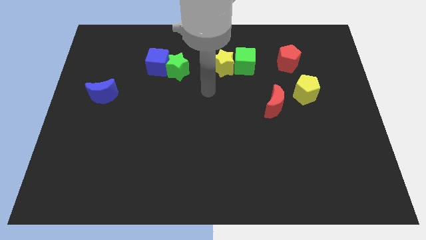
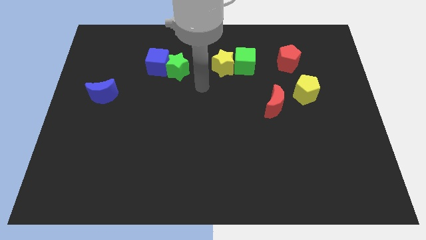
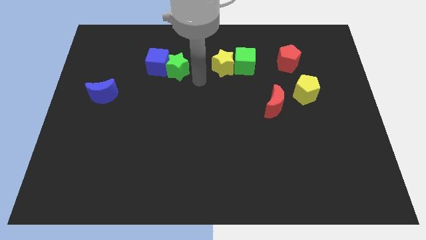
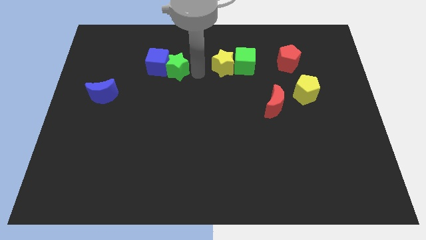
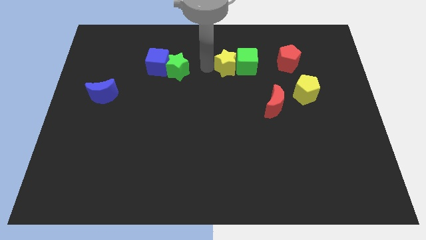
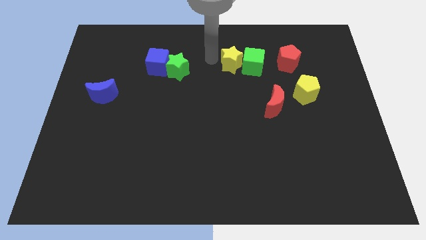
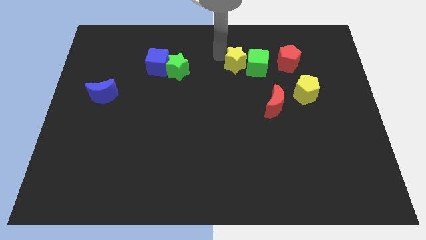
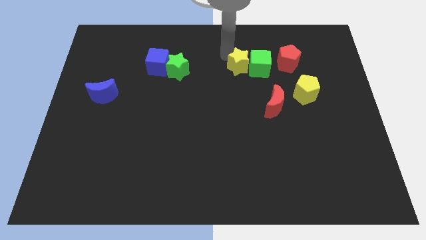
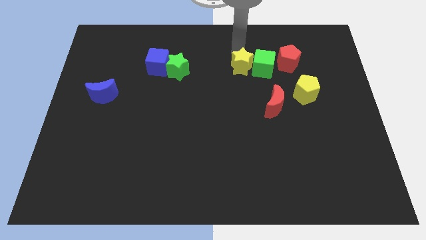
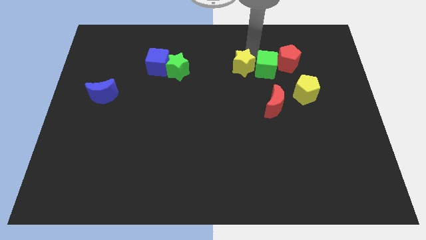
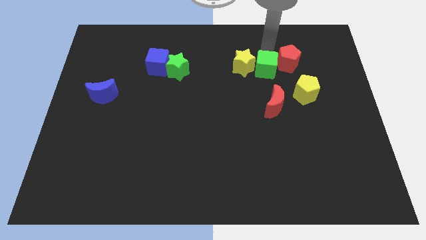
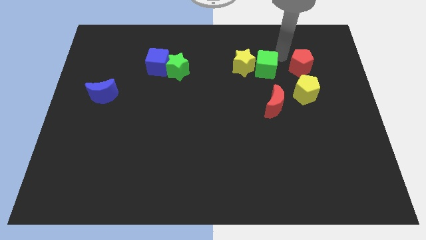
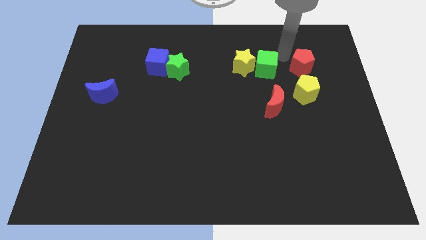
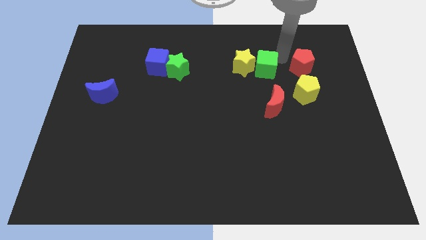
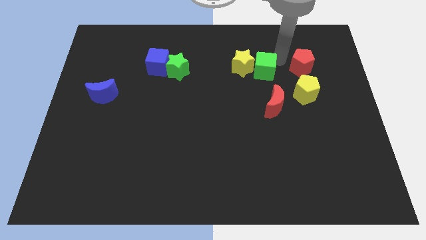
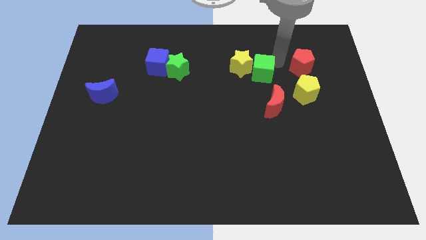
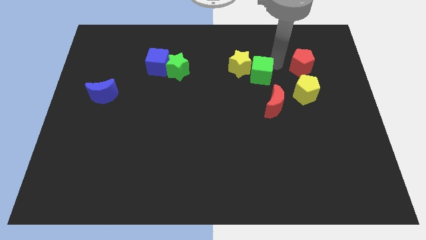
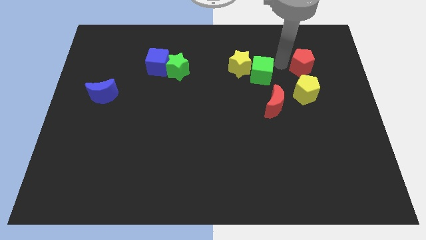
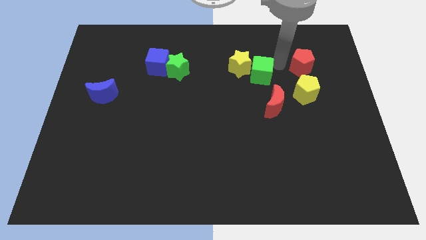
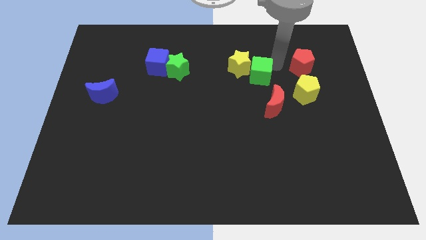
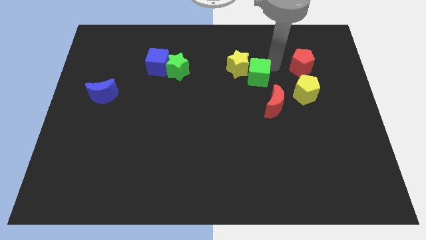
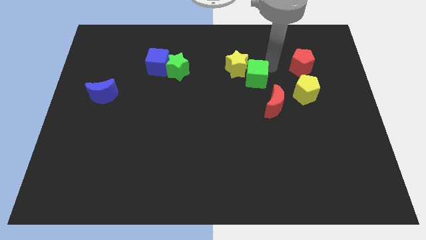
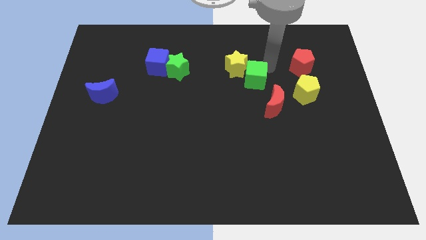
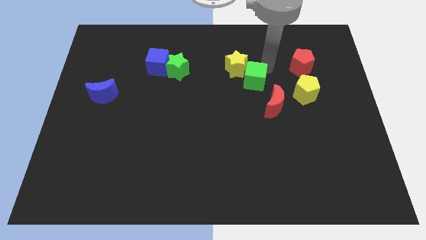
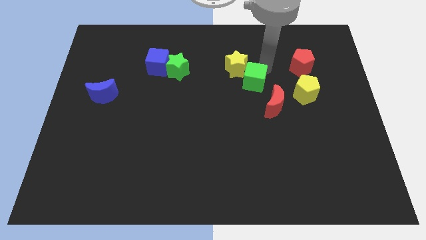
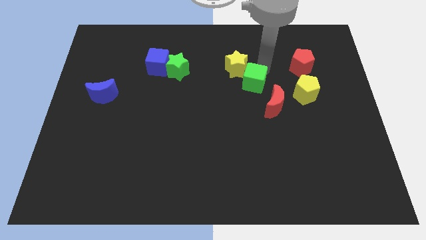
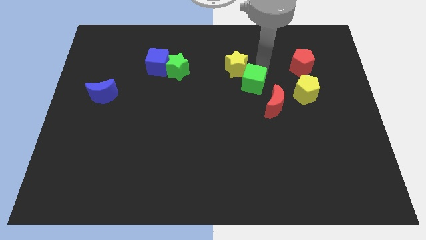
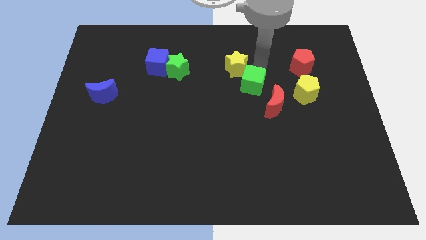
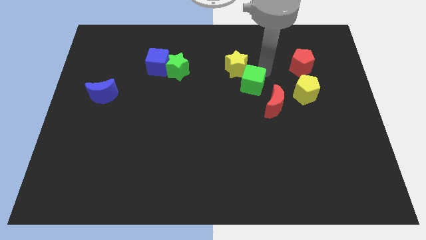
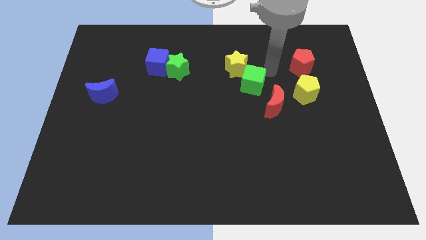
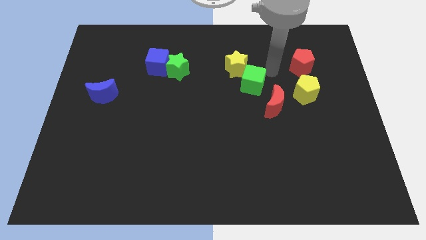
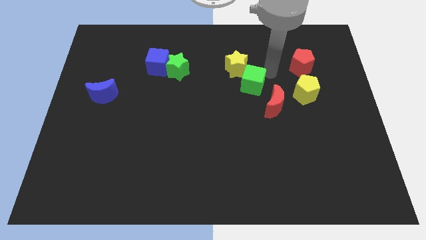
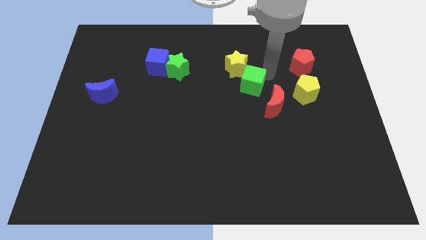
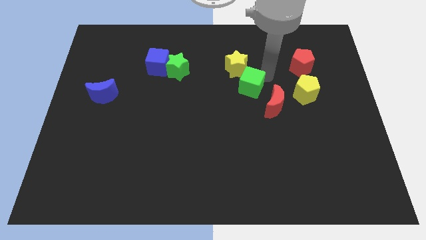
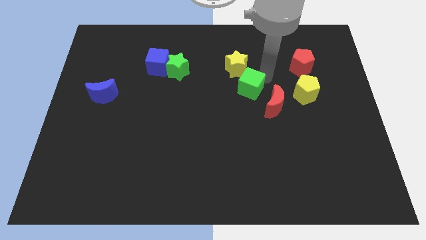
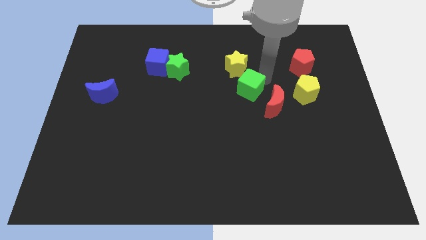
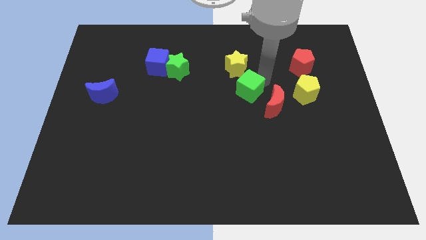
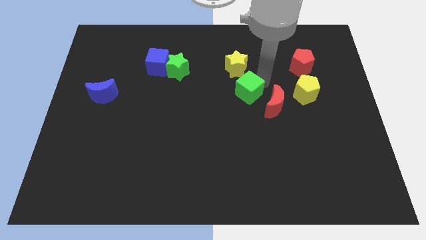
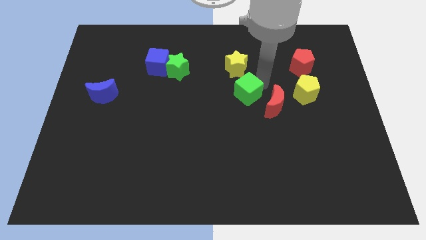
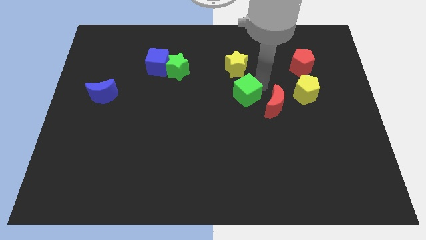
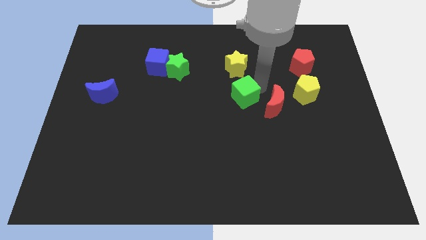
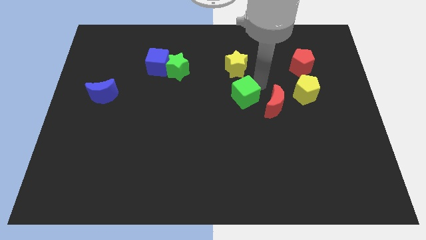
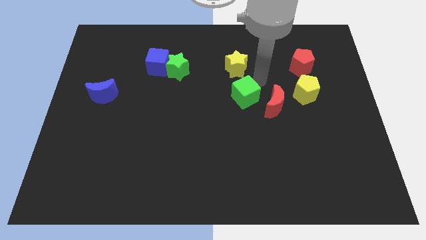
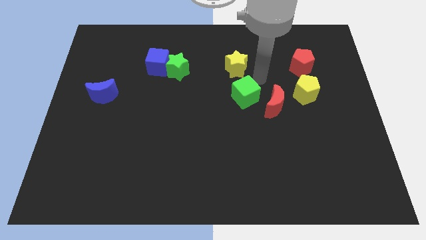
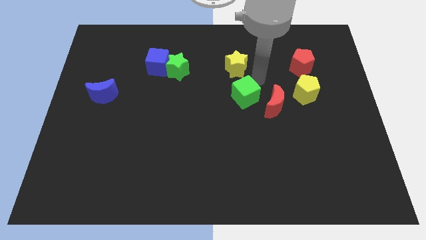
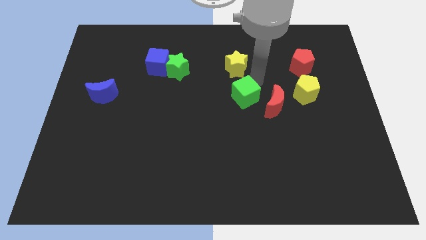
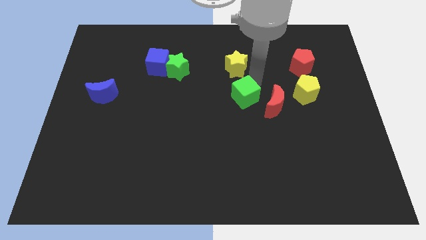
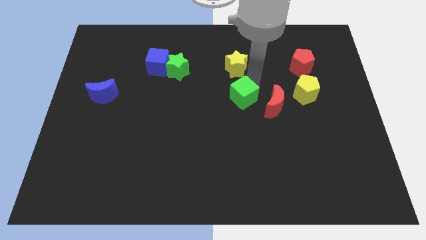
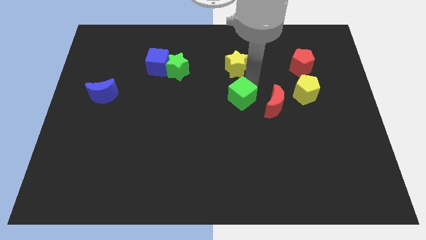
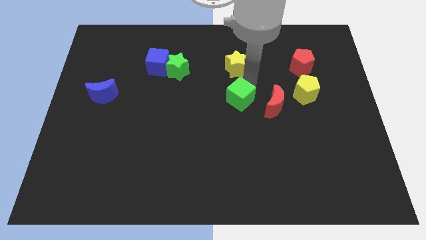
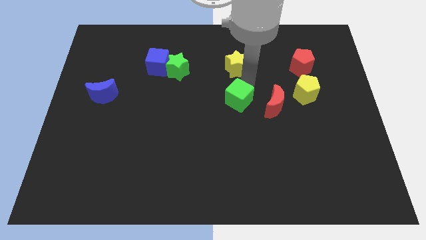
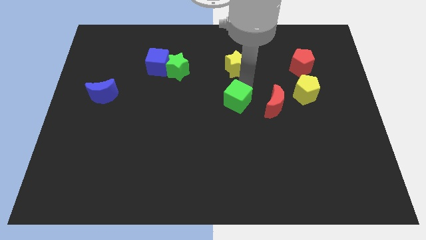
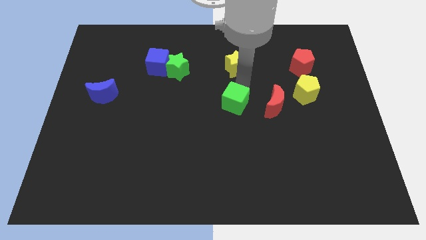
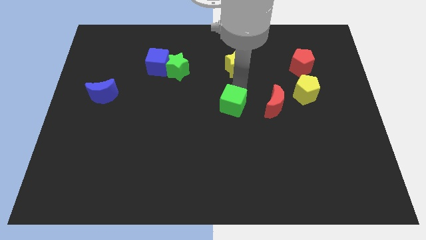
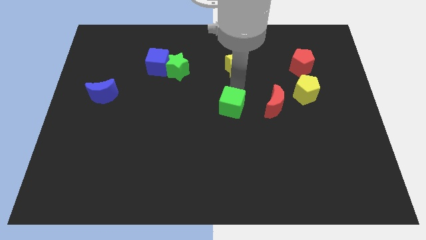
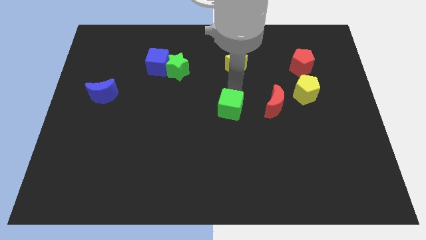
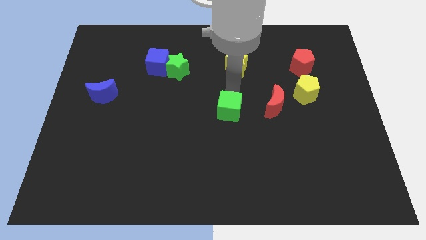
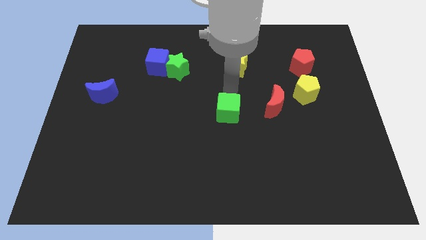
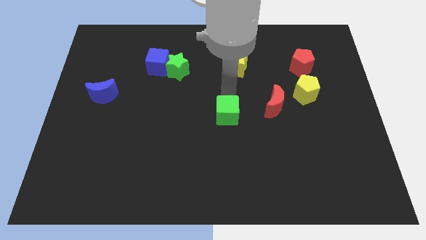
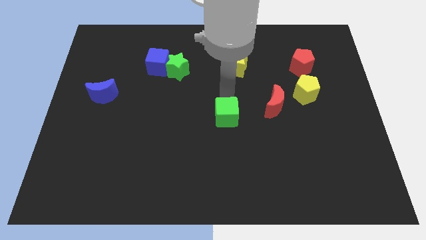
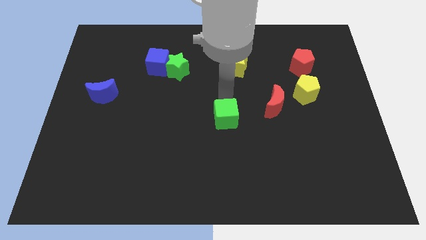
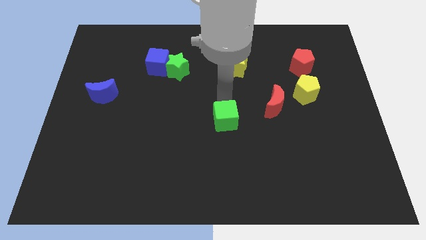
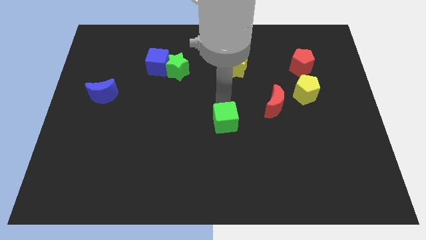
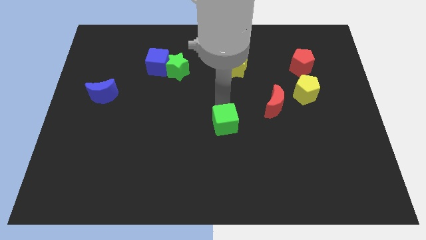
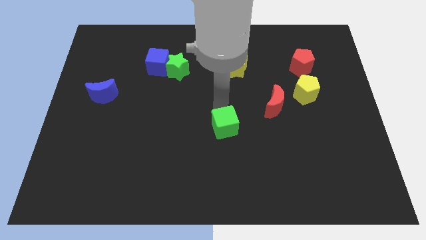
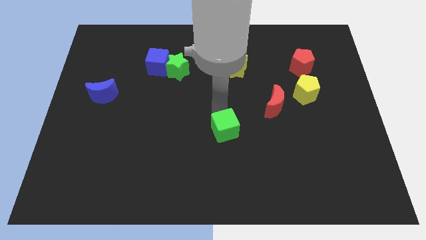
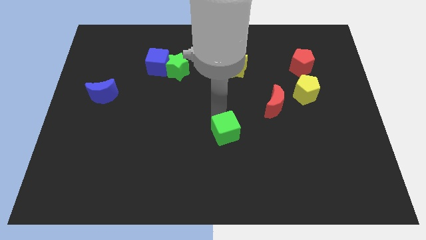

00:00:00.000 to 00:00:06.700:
push the green cube down

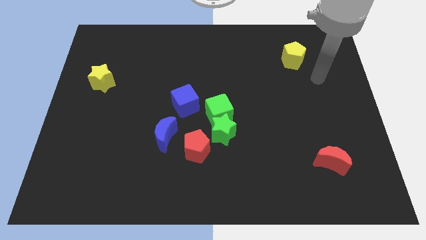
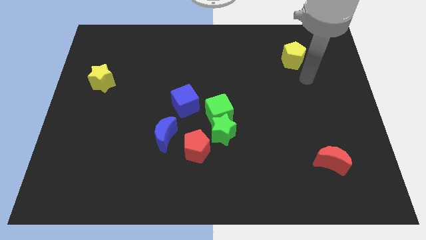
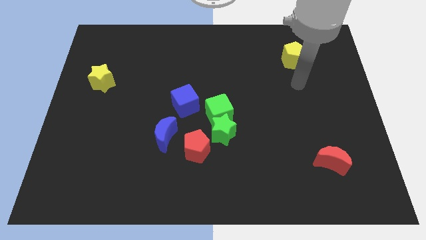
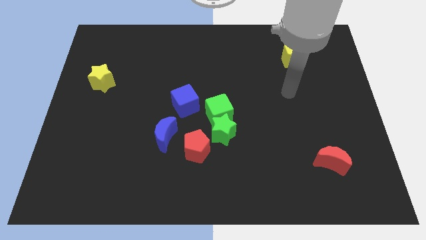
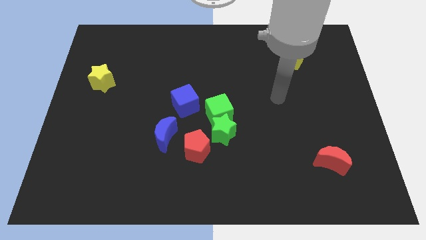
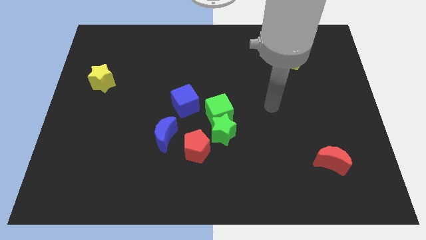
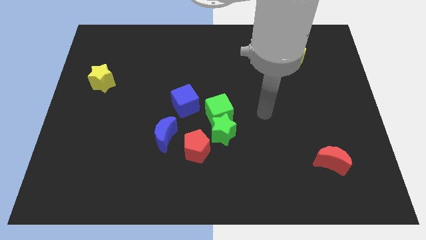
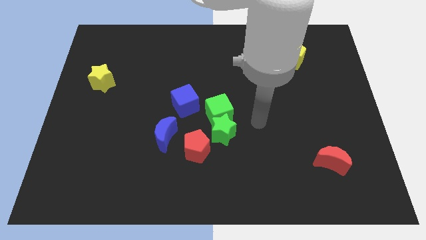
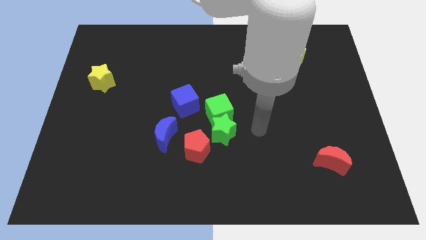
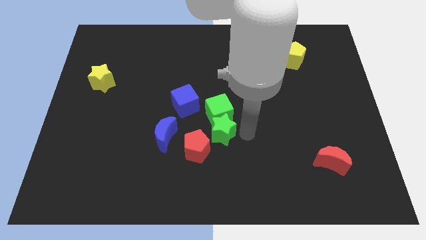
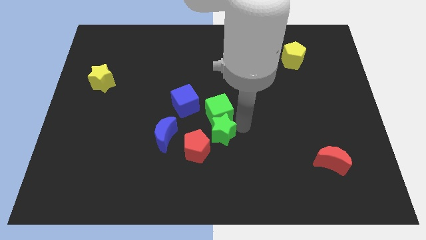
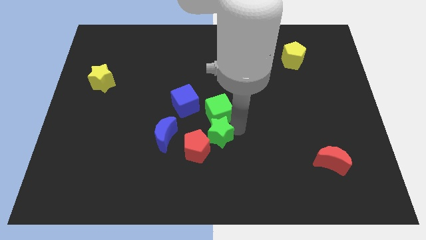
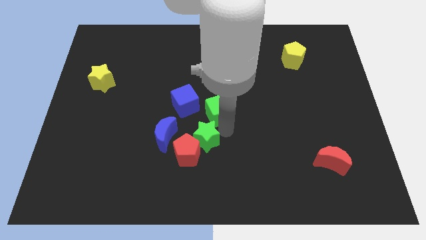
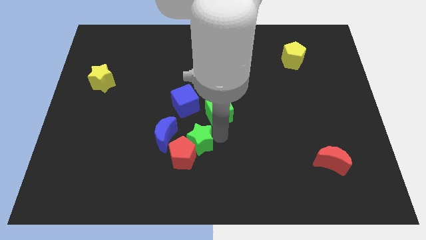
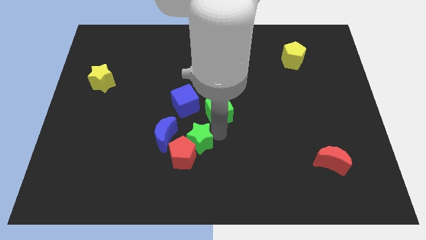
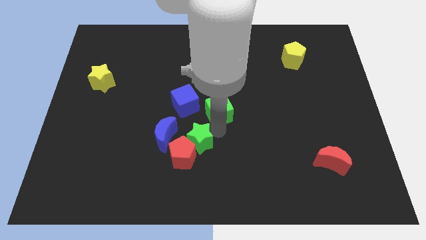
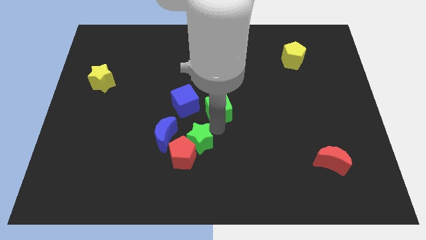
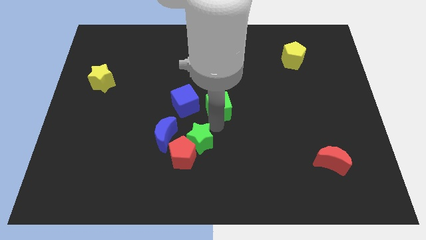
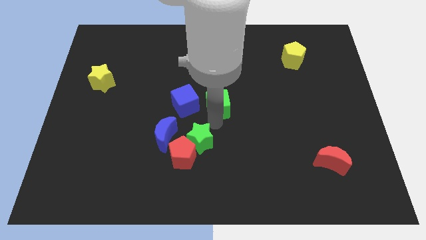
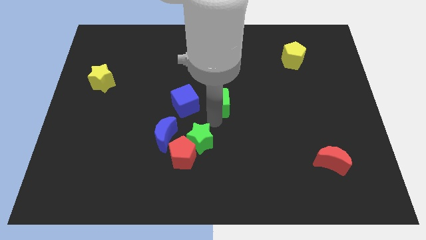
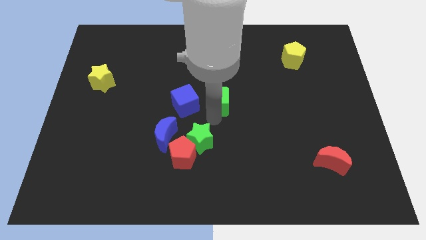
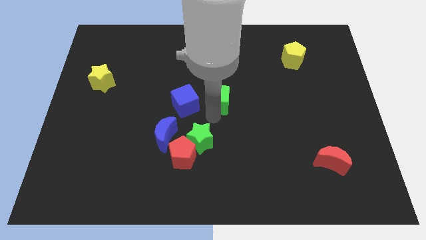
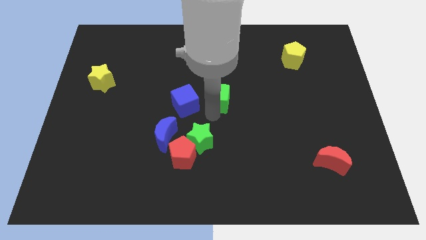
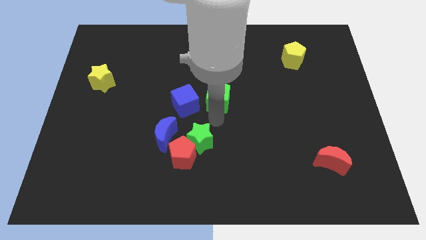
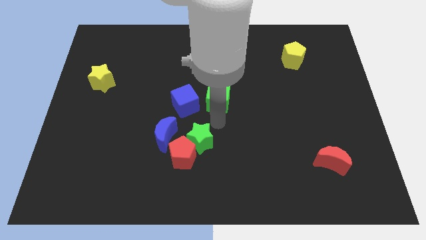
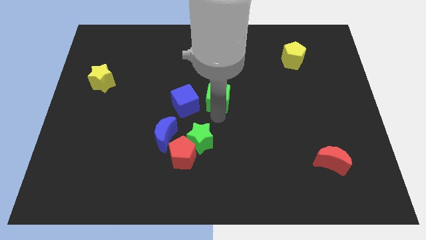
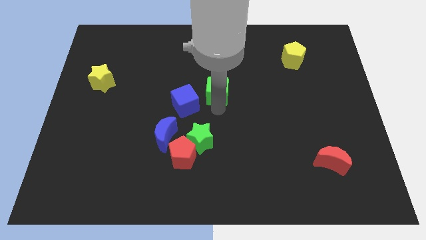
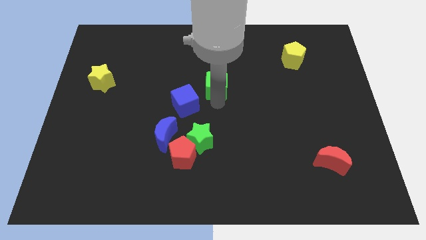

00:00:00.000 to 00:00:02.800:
slightly move the green cube up
